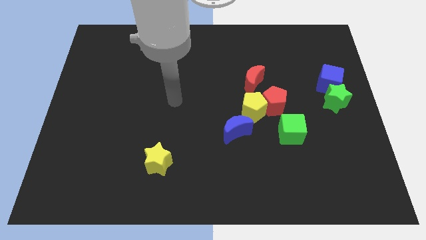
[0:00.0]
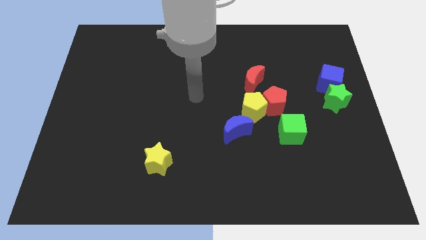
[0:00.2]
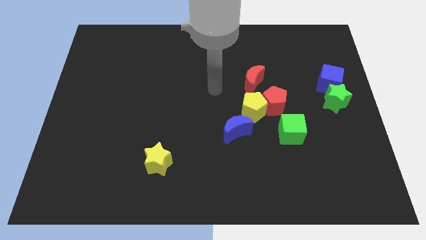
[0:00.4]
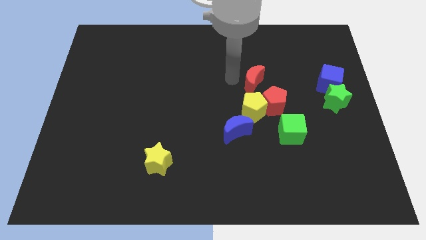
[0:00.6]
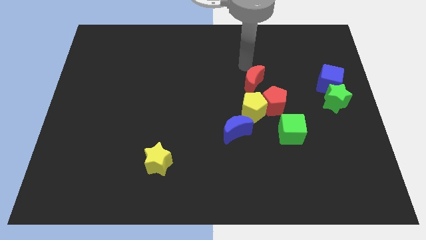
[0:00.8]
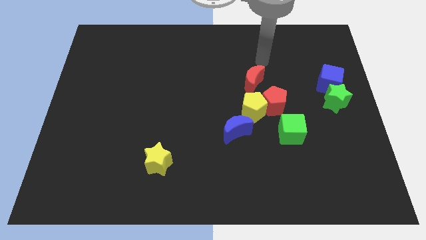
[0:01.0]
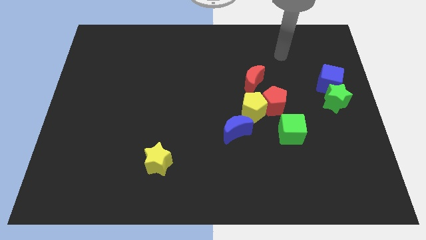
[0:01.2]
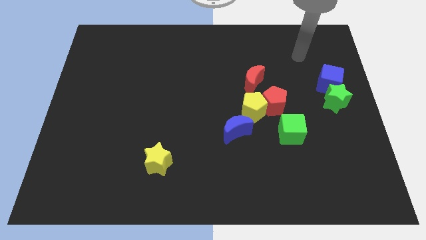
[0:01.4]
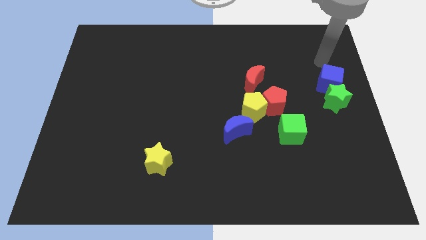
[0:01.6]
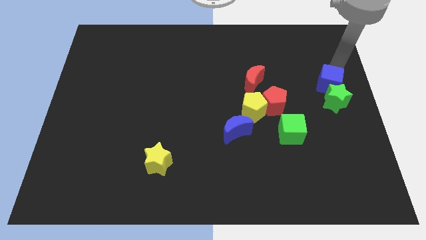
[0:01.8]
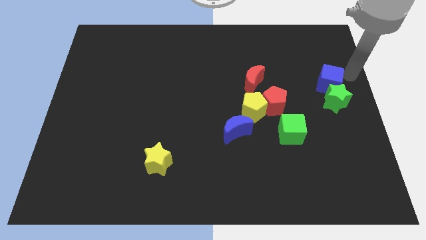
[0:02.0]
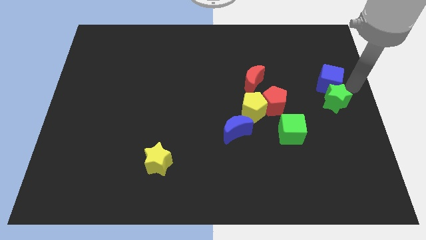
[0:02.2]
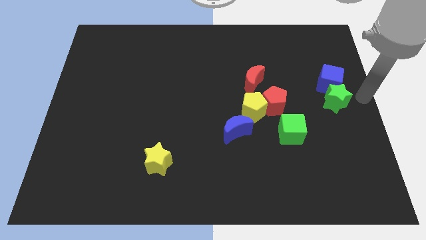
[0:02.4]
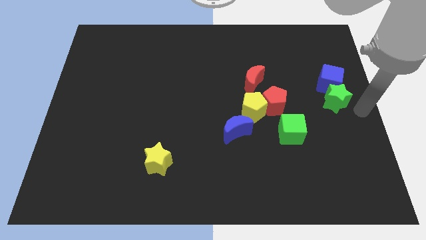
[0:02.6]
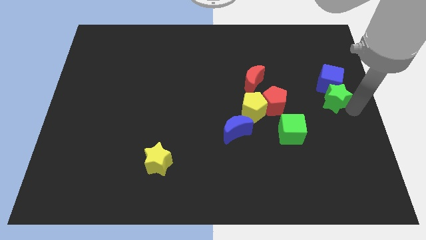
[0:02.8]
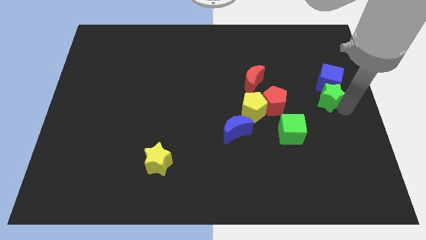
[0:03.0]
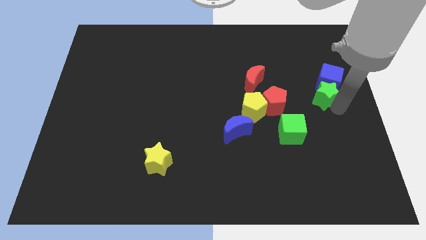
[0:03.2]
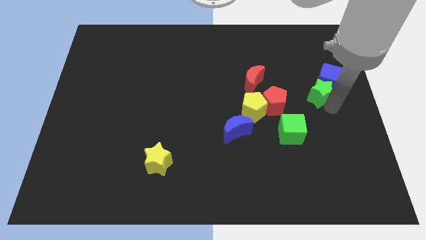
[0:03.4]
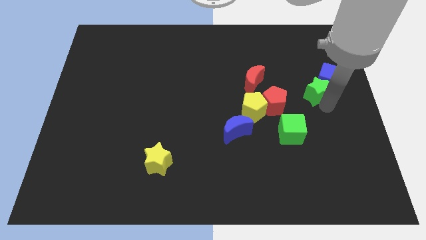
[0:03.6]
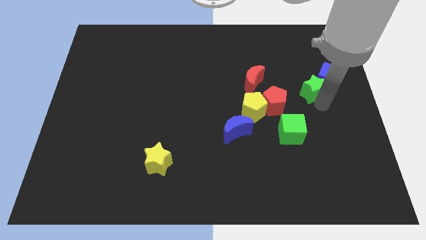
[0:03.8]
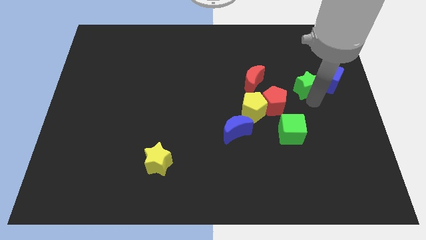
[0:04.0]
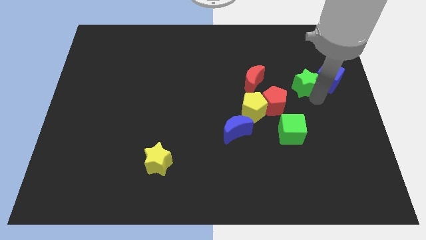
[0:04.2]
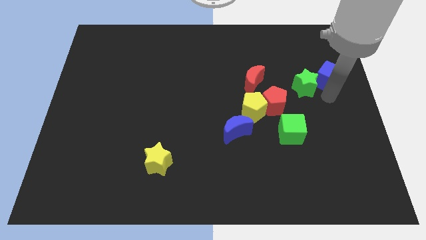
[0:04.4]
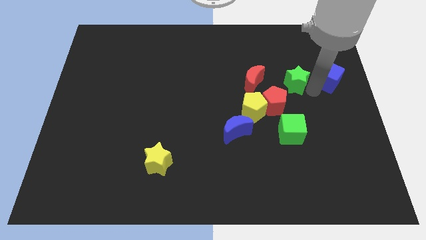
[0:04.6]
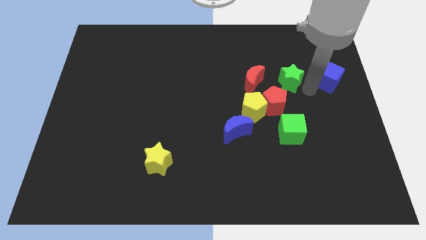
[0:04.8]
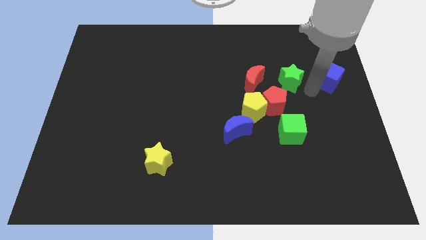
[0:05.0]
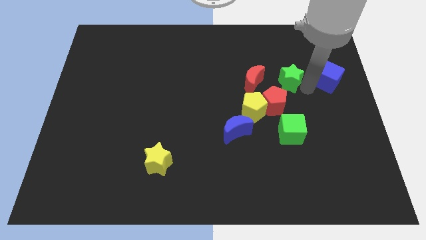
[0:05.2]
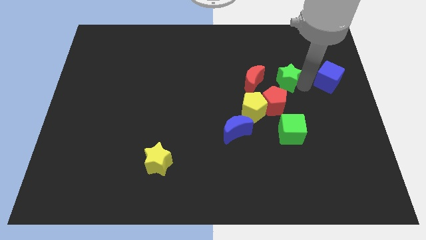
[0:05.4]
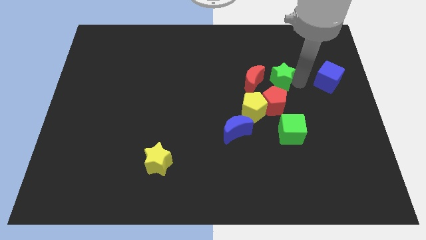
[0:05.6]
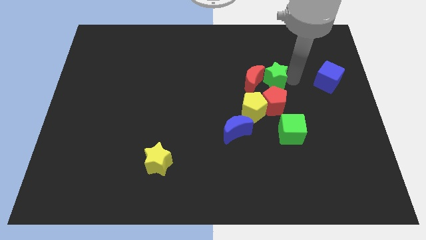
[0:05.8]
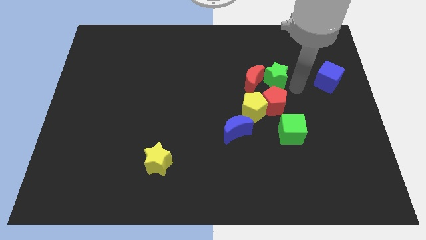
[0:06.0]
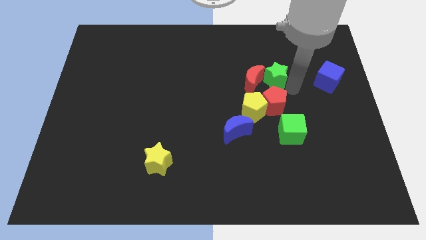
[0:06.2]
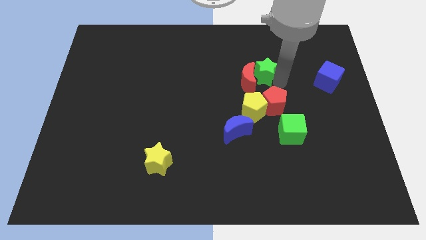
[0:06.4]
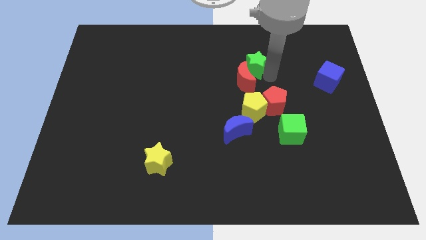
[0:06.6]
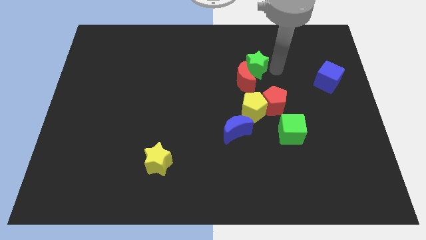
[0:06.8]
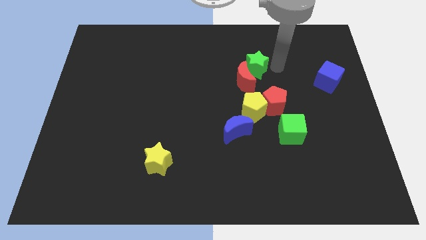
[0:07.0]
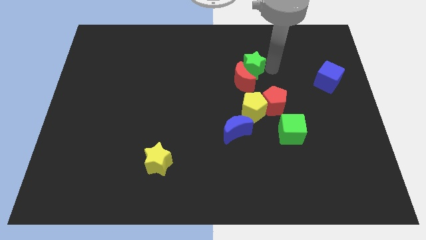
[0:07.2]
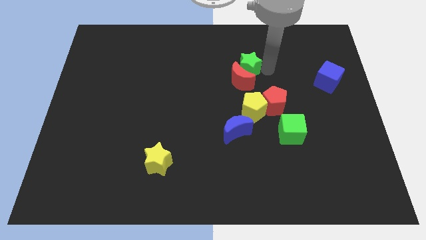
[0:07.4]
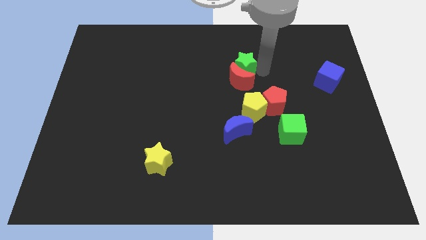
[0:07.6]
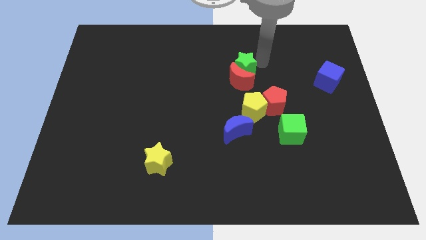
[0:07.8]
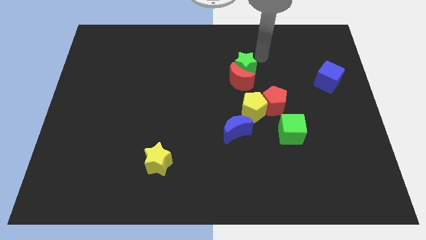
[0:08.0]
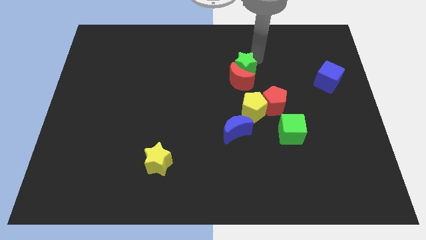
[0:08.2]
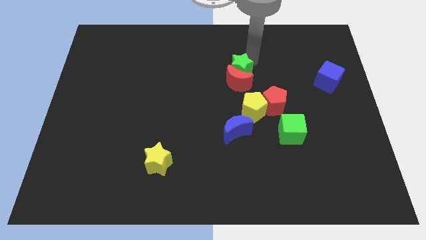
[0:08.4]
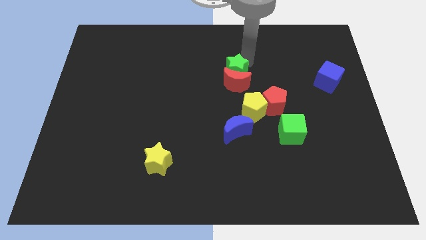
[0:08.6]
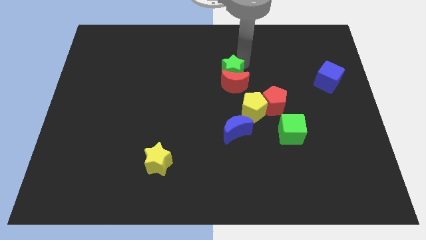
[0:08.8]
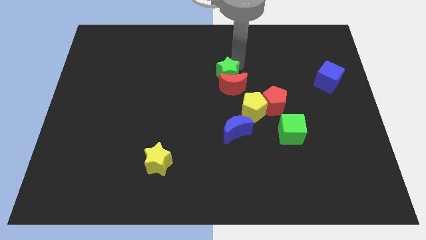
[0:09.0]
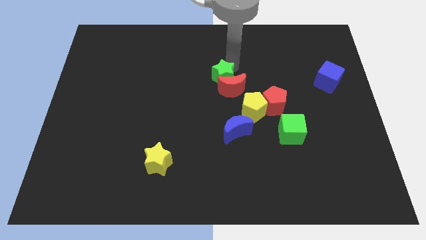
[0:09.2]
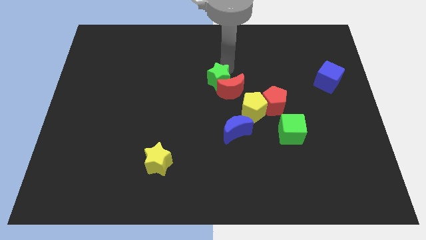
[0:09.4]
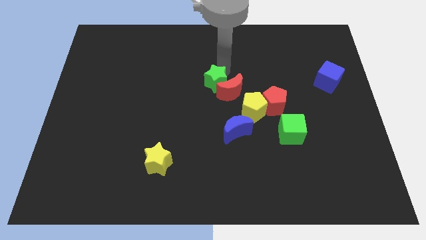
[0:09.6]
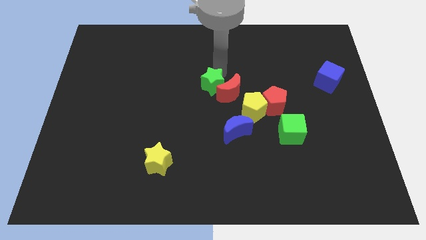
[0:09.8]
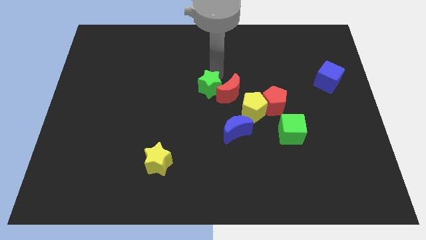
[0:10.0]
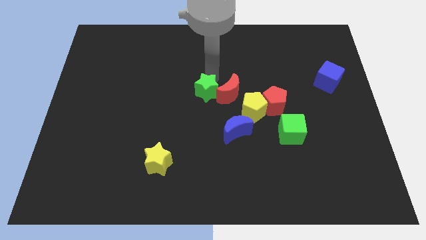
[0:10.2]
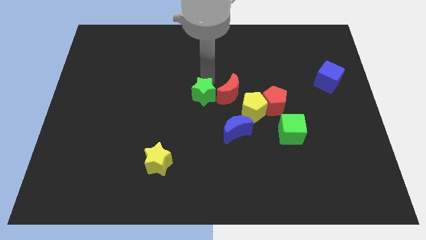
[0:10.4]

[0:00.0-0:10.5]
push the green star to the left side of the yellow pentagon

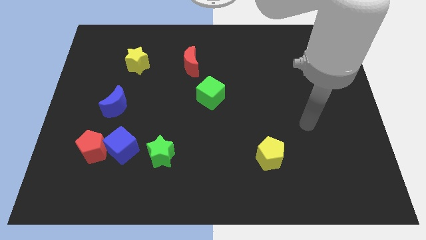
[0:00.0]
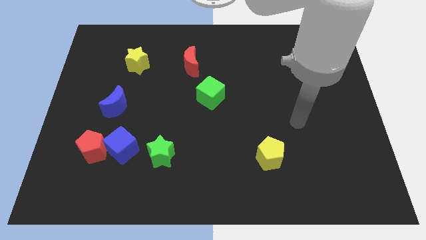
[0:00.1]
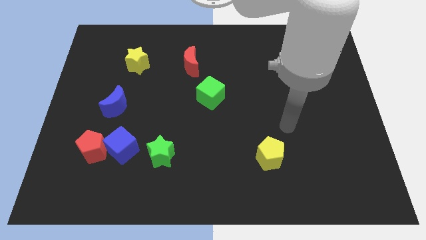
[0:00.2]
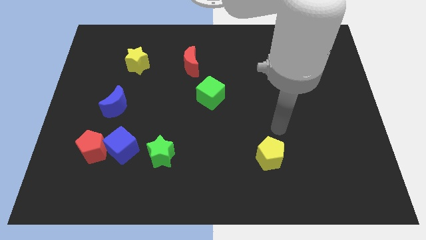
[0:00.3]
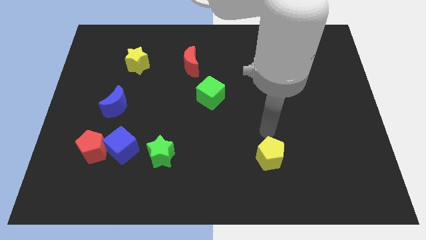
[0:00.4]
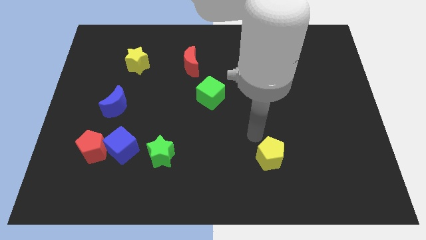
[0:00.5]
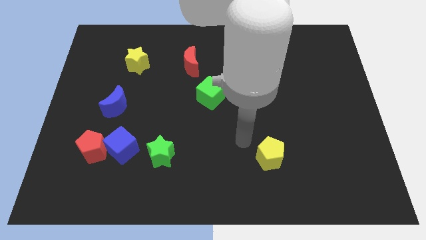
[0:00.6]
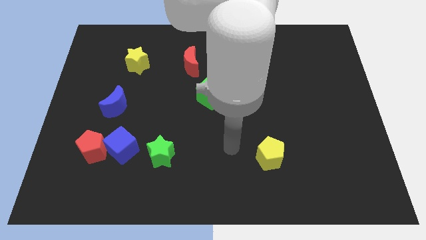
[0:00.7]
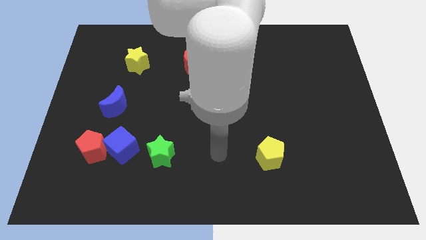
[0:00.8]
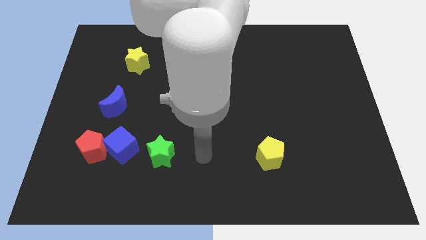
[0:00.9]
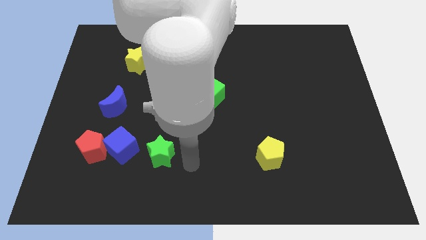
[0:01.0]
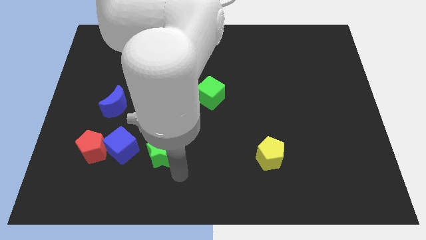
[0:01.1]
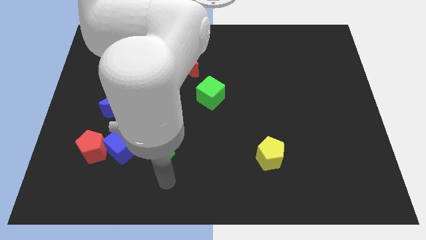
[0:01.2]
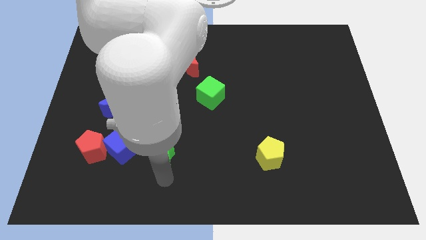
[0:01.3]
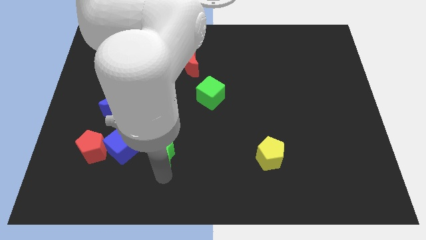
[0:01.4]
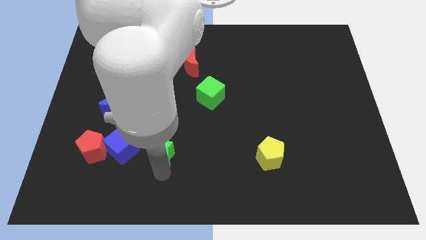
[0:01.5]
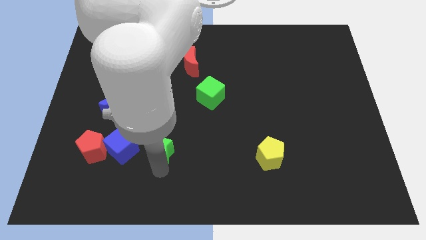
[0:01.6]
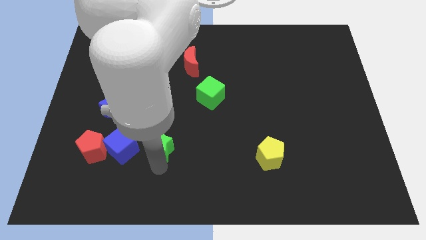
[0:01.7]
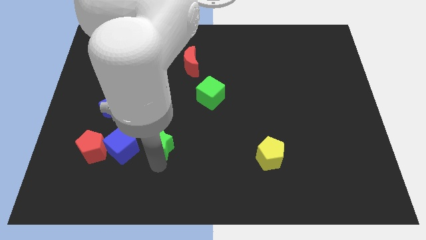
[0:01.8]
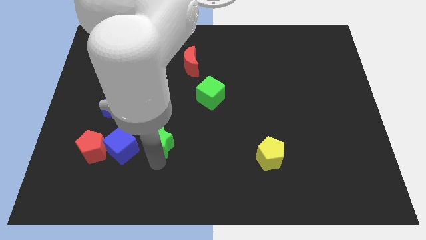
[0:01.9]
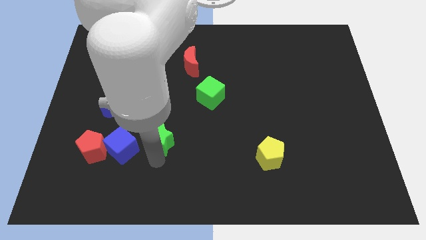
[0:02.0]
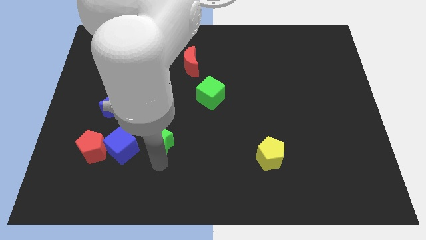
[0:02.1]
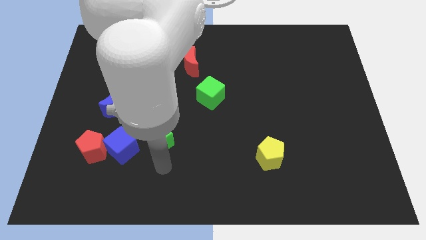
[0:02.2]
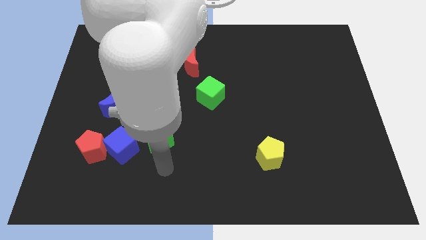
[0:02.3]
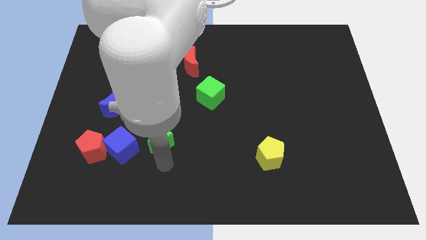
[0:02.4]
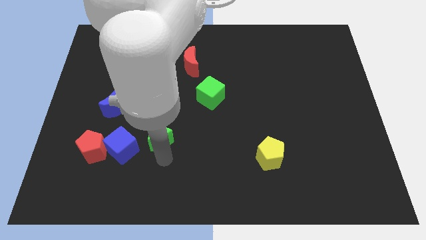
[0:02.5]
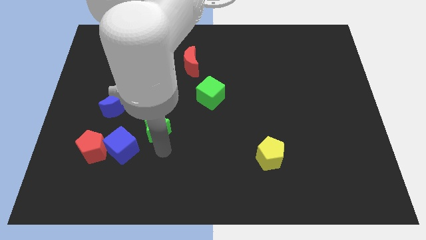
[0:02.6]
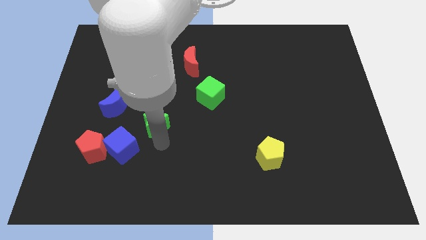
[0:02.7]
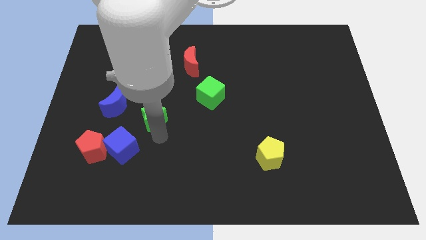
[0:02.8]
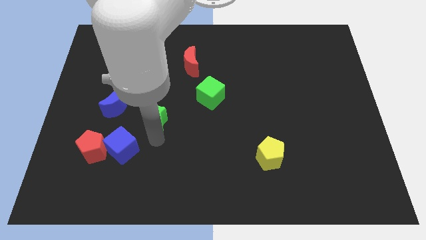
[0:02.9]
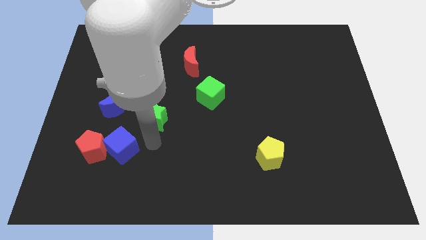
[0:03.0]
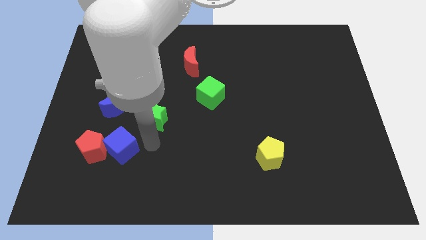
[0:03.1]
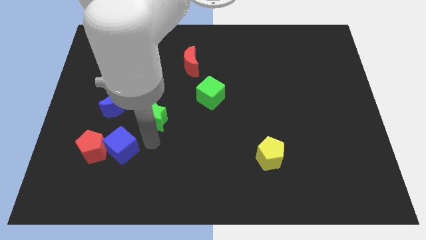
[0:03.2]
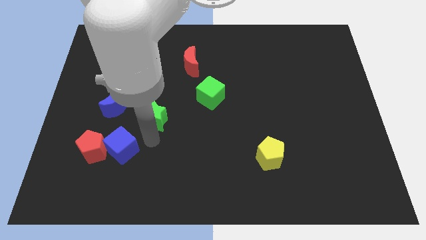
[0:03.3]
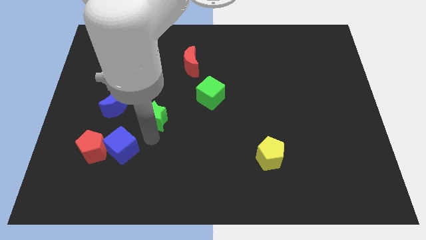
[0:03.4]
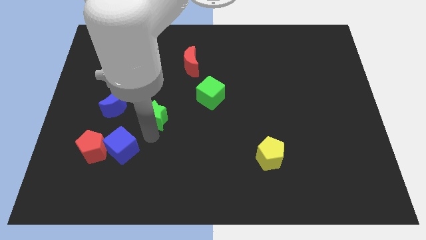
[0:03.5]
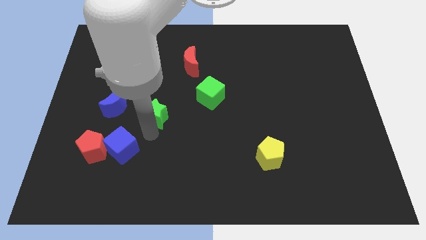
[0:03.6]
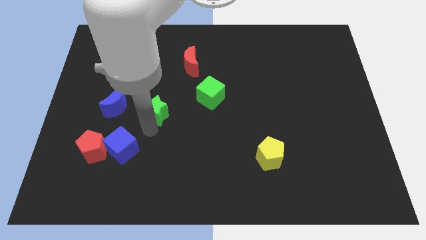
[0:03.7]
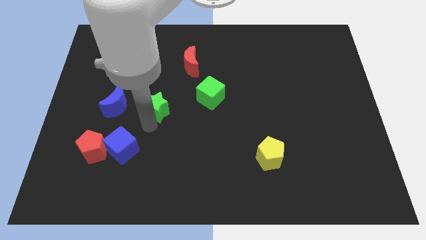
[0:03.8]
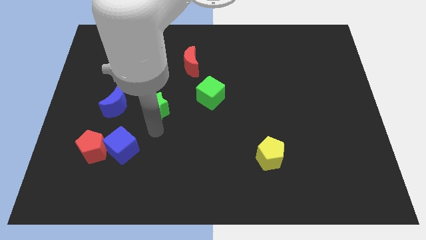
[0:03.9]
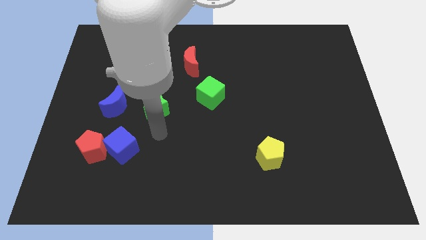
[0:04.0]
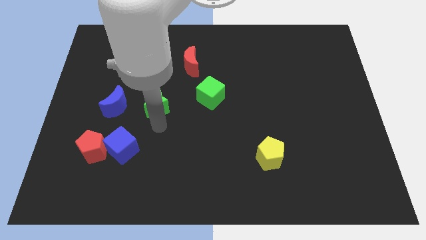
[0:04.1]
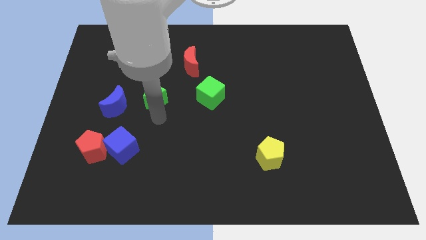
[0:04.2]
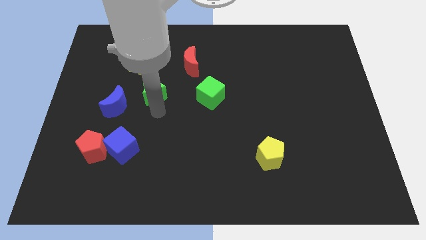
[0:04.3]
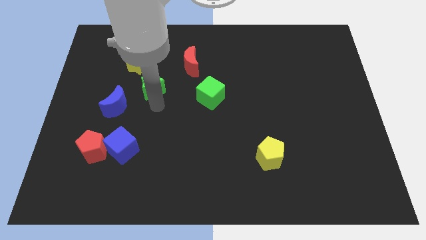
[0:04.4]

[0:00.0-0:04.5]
move the green star to the bottom right side of the yellow star
